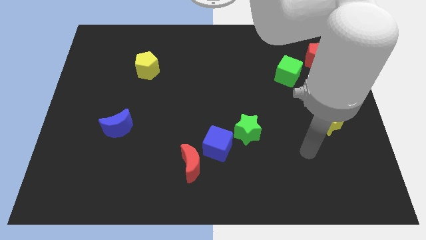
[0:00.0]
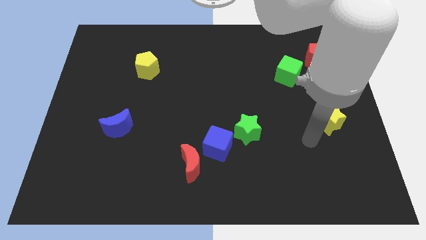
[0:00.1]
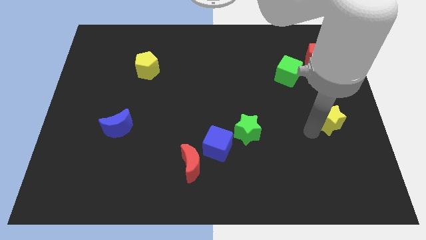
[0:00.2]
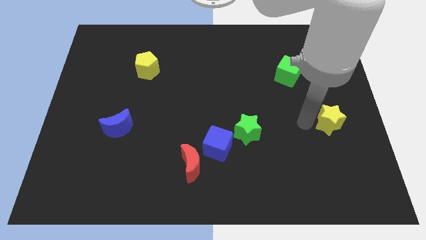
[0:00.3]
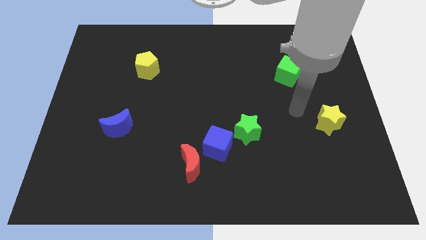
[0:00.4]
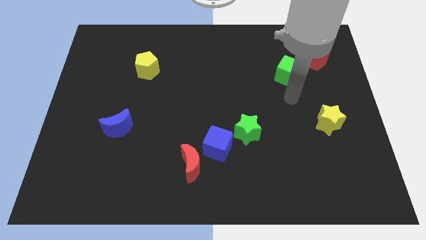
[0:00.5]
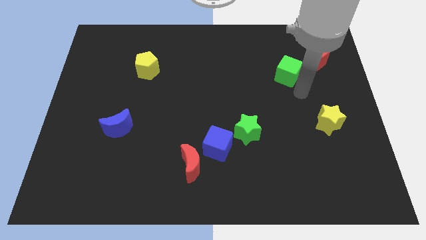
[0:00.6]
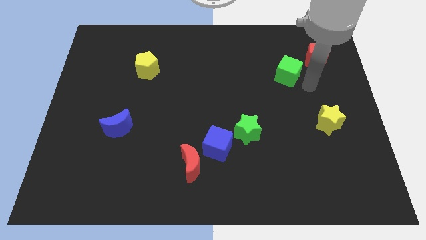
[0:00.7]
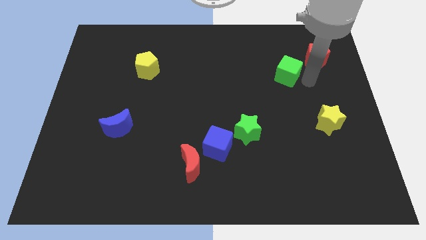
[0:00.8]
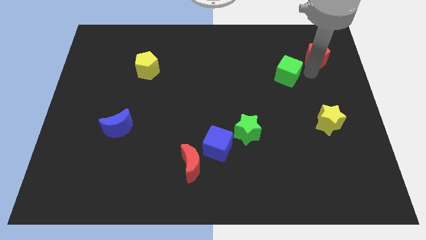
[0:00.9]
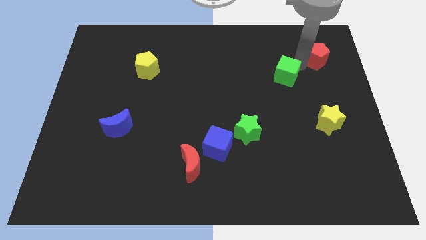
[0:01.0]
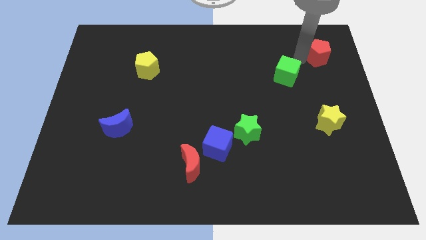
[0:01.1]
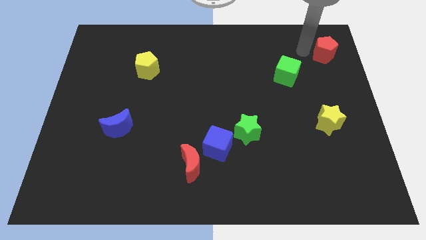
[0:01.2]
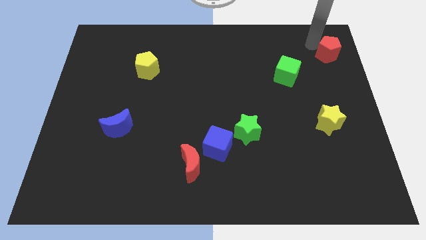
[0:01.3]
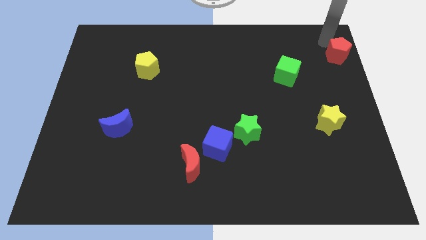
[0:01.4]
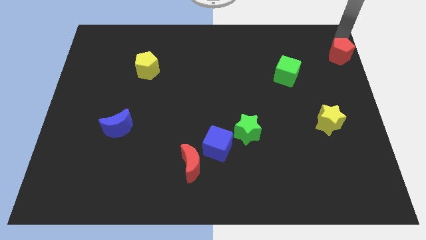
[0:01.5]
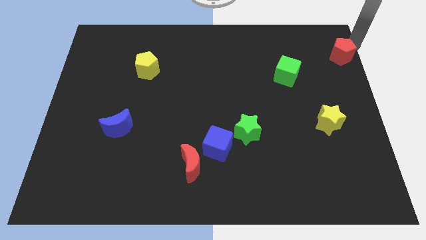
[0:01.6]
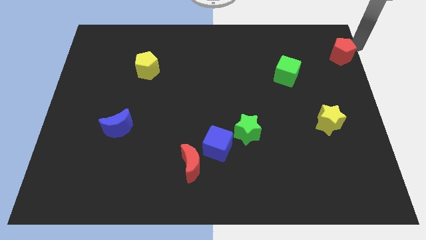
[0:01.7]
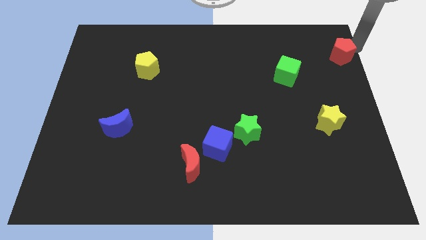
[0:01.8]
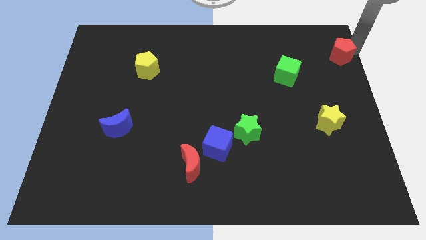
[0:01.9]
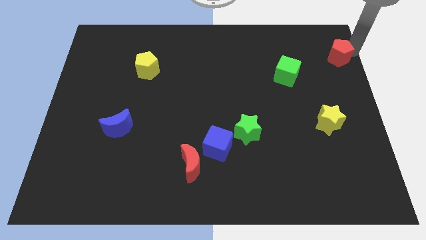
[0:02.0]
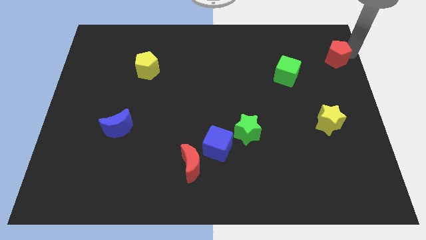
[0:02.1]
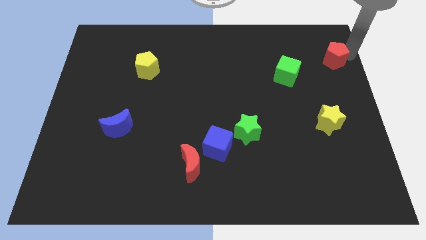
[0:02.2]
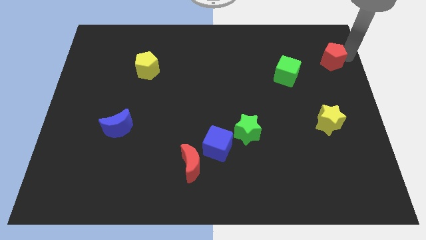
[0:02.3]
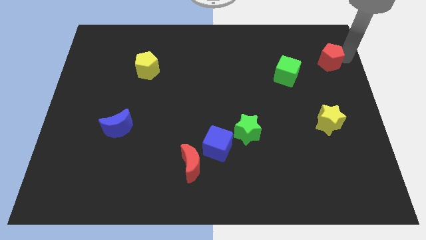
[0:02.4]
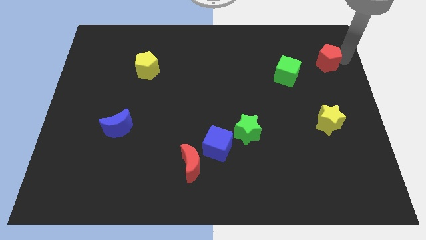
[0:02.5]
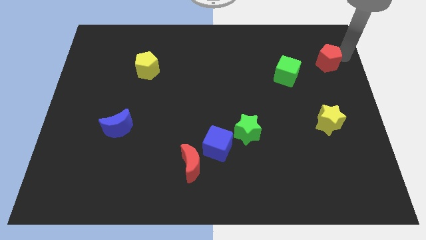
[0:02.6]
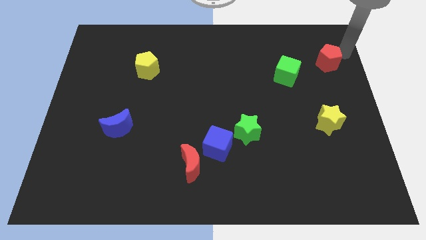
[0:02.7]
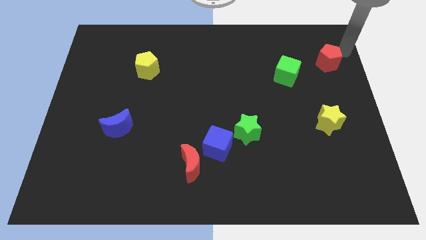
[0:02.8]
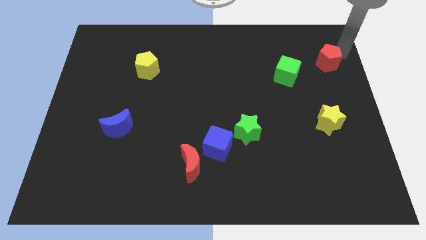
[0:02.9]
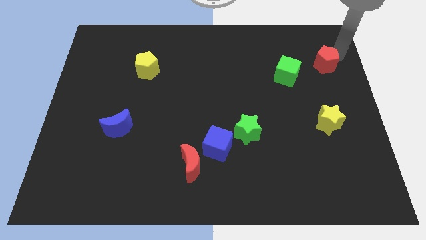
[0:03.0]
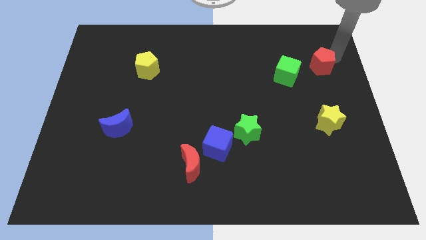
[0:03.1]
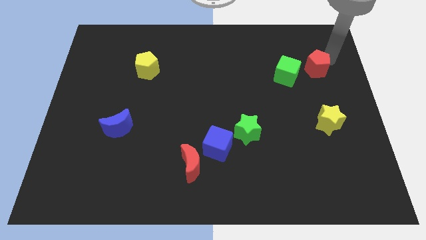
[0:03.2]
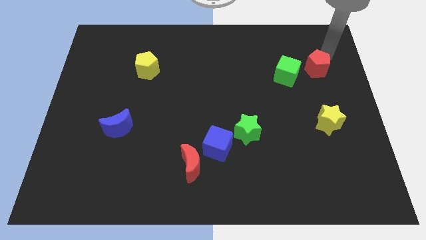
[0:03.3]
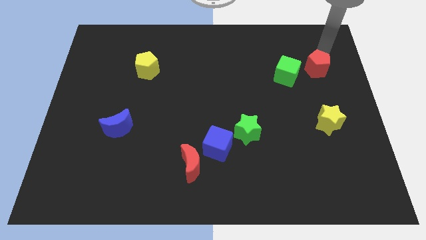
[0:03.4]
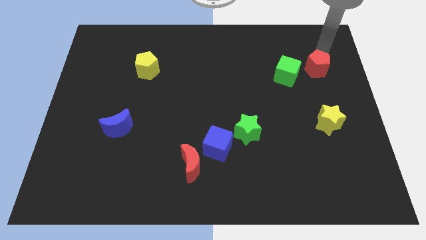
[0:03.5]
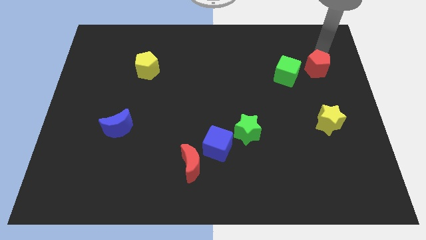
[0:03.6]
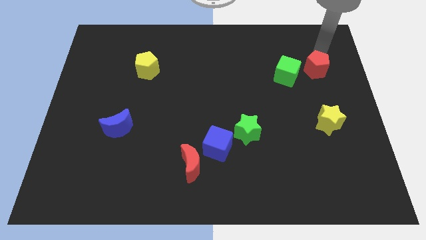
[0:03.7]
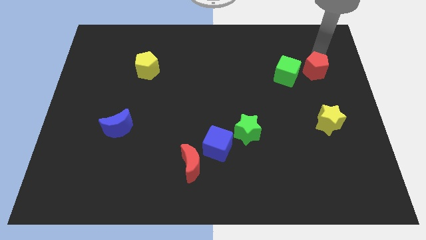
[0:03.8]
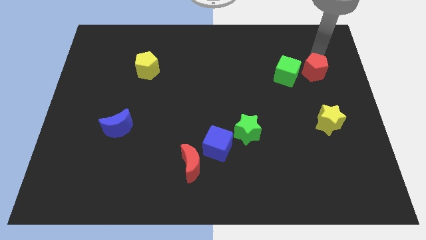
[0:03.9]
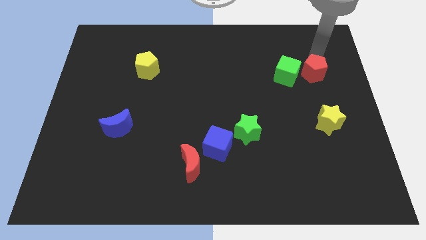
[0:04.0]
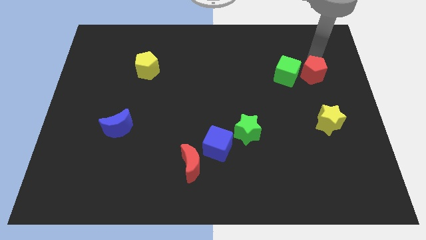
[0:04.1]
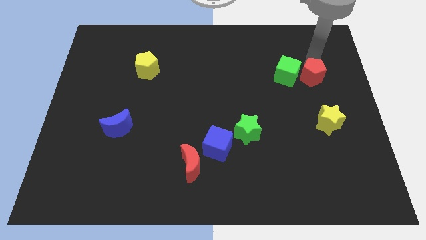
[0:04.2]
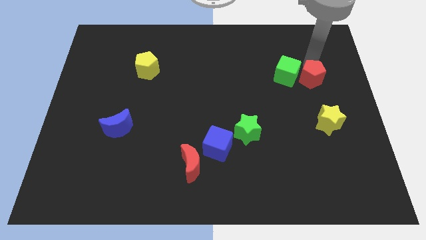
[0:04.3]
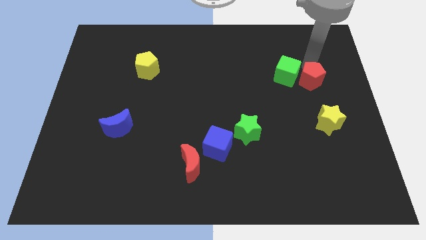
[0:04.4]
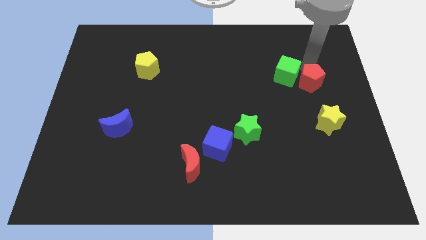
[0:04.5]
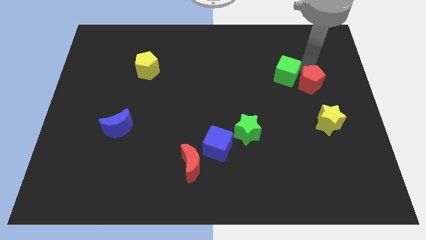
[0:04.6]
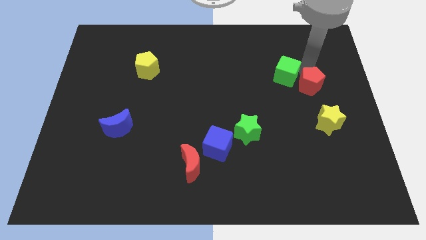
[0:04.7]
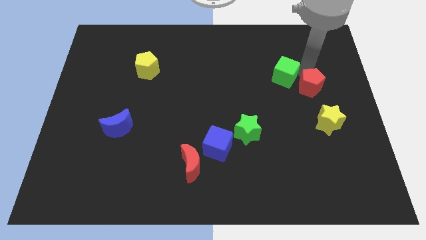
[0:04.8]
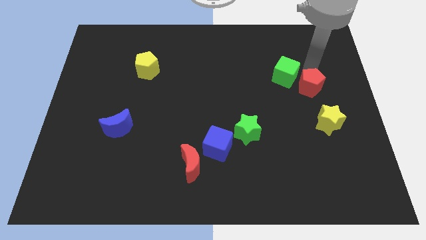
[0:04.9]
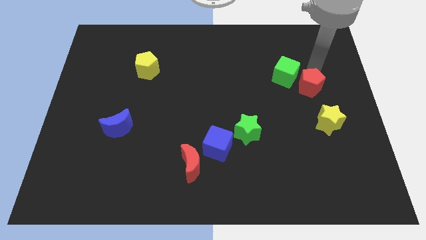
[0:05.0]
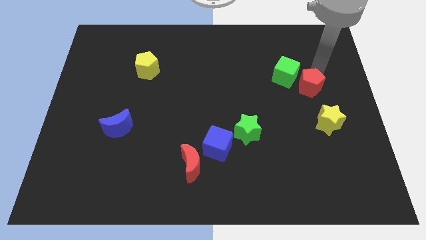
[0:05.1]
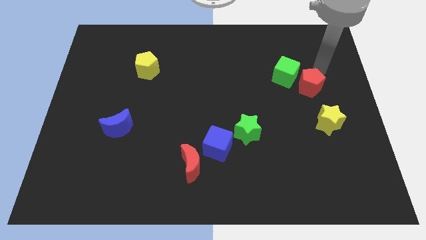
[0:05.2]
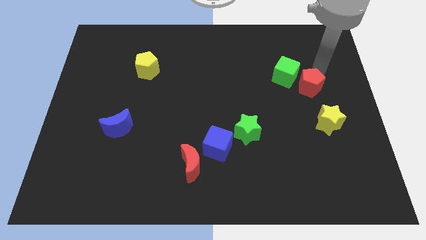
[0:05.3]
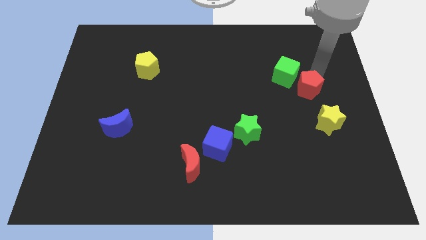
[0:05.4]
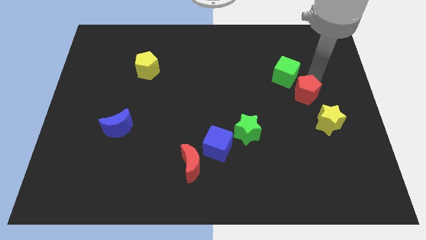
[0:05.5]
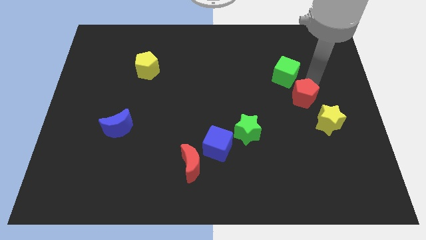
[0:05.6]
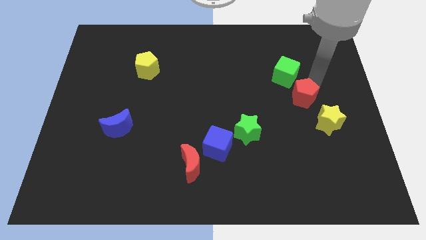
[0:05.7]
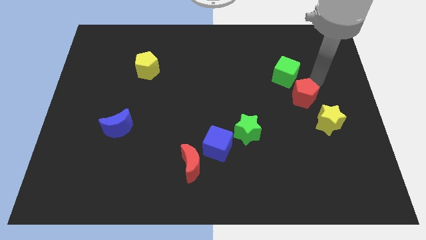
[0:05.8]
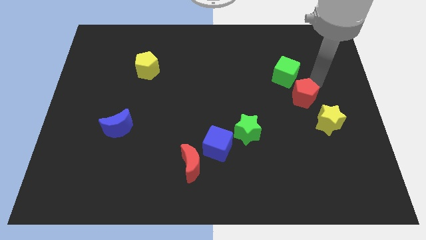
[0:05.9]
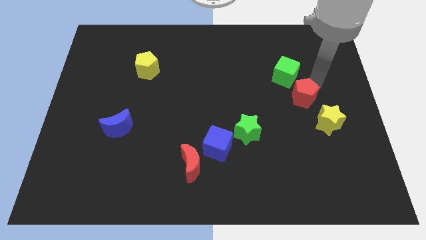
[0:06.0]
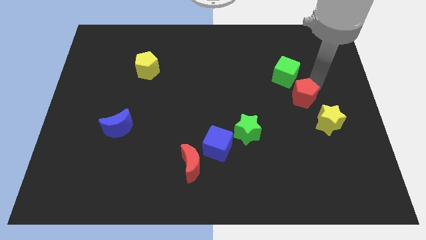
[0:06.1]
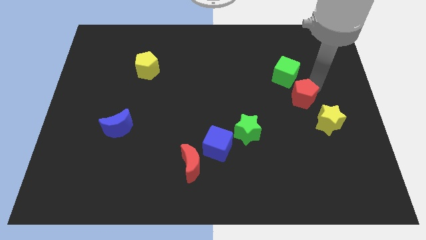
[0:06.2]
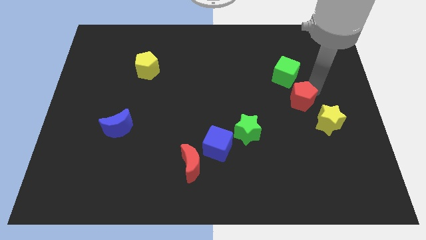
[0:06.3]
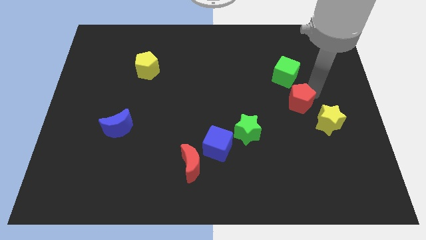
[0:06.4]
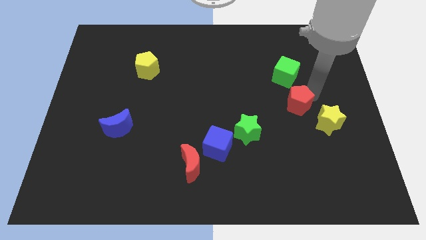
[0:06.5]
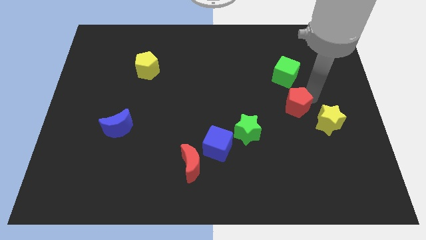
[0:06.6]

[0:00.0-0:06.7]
slide the red pentagon to the left side of the yellow star
